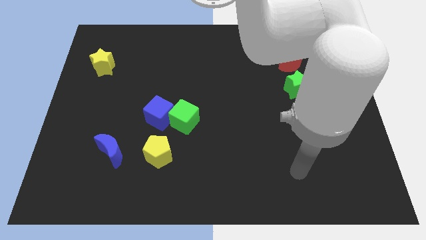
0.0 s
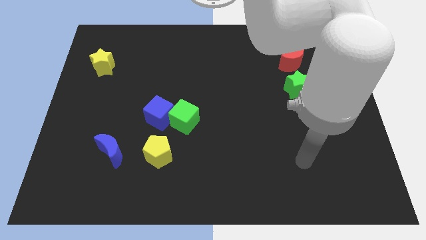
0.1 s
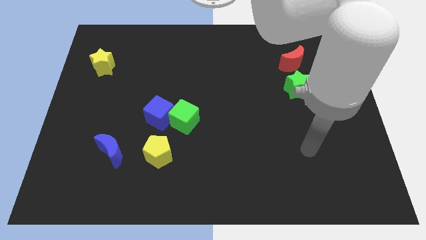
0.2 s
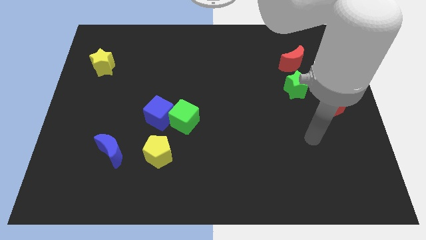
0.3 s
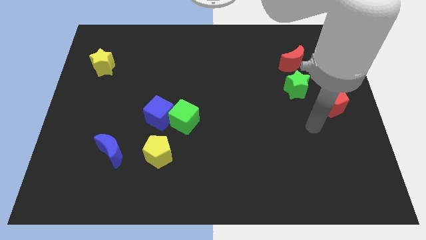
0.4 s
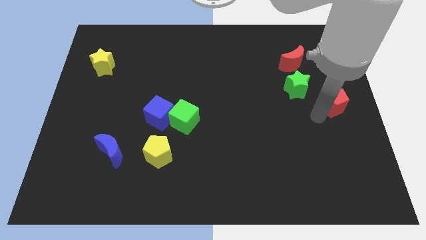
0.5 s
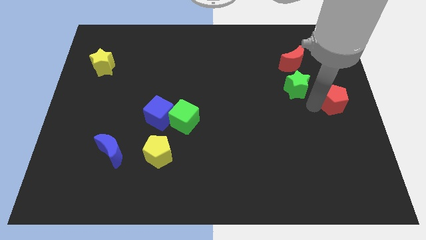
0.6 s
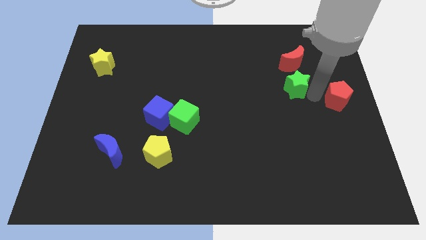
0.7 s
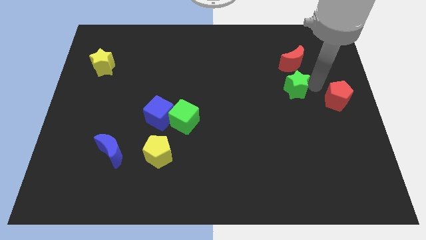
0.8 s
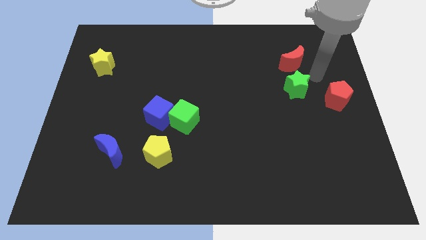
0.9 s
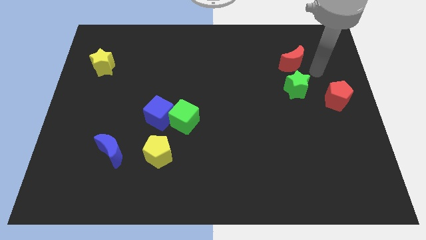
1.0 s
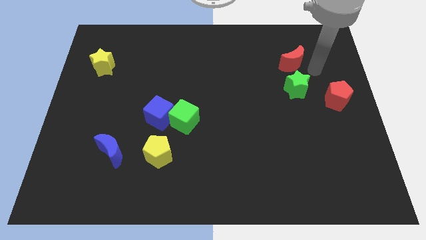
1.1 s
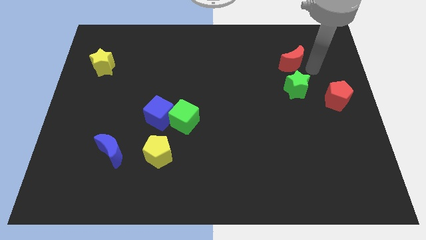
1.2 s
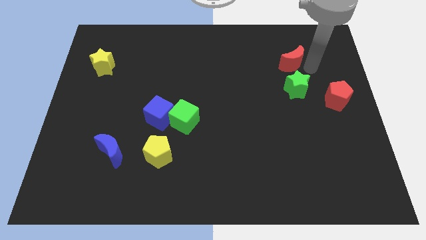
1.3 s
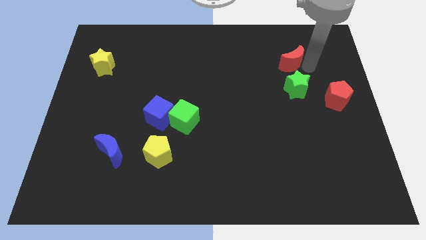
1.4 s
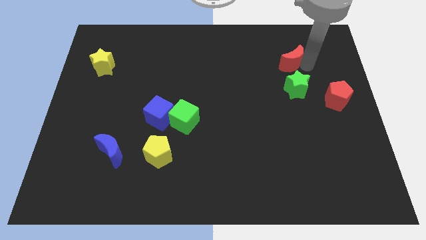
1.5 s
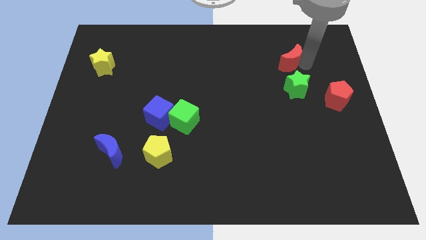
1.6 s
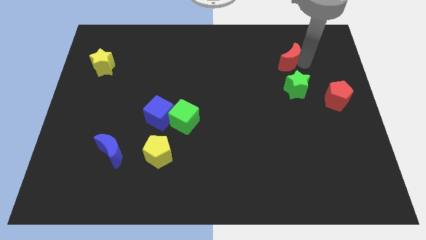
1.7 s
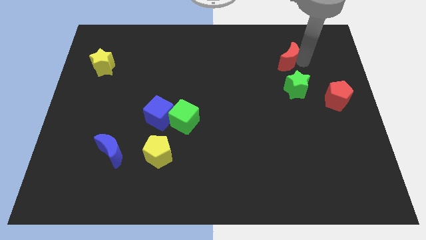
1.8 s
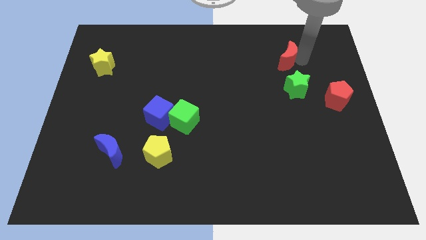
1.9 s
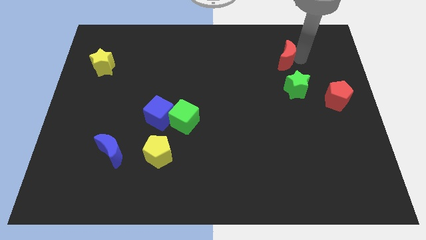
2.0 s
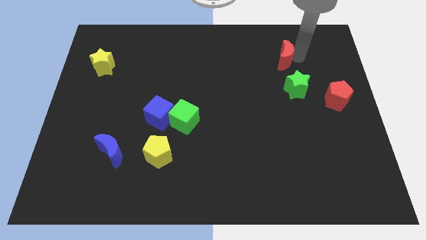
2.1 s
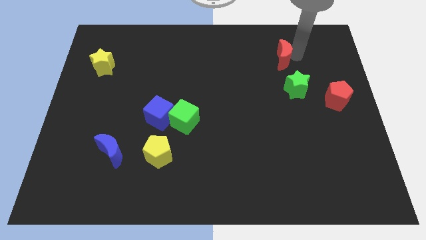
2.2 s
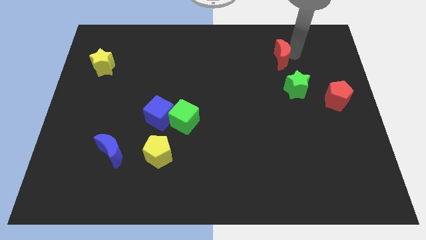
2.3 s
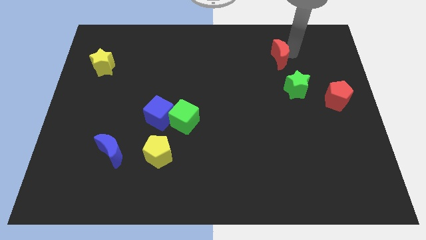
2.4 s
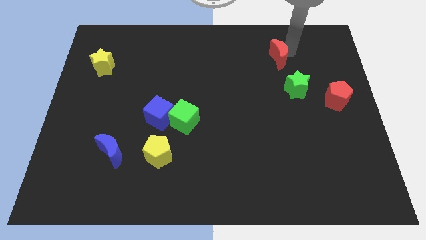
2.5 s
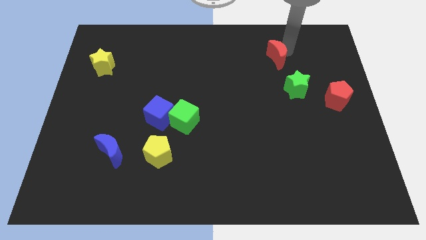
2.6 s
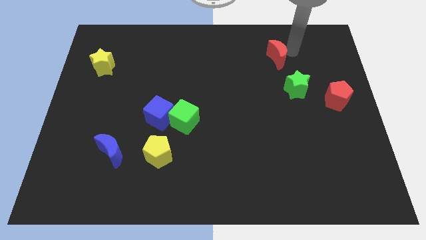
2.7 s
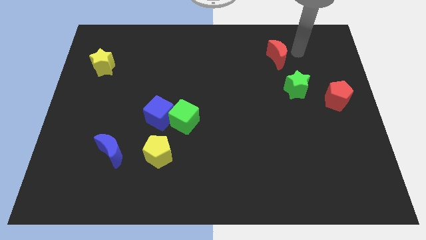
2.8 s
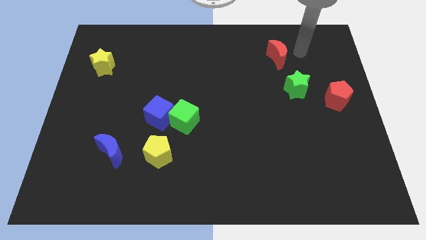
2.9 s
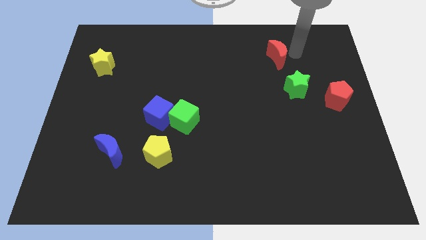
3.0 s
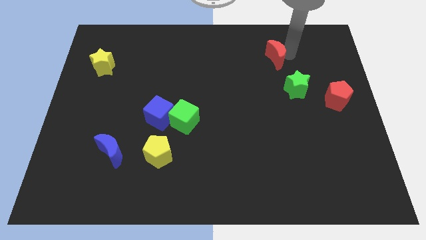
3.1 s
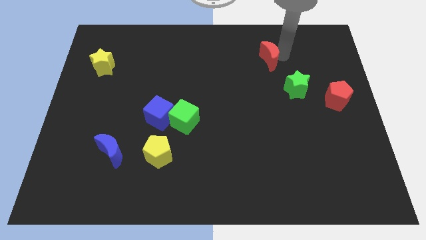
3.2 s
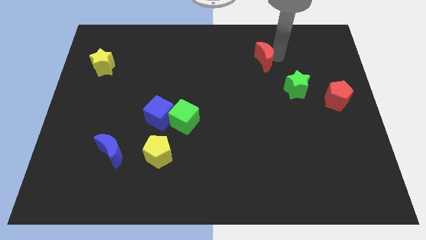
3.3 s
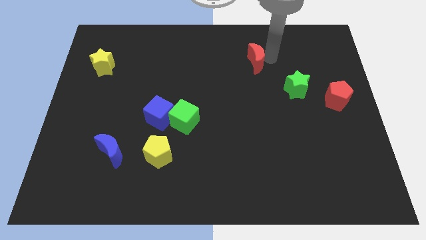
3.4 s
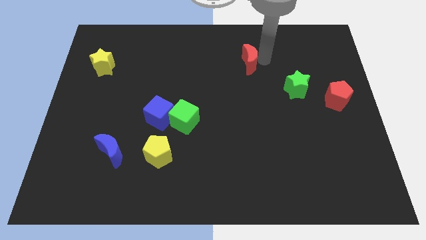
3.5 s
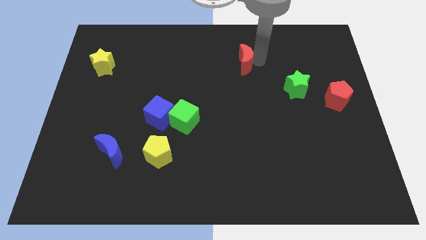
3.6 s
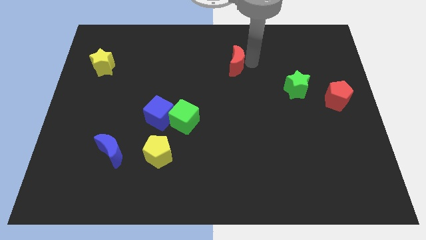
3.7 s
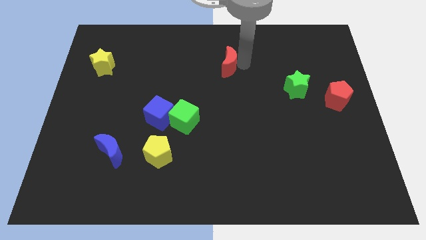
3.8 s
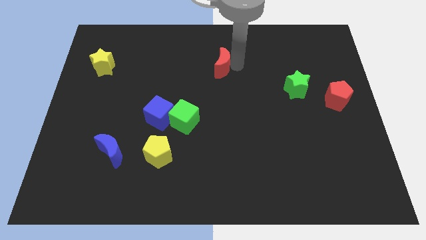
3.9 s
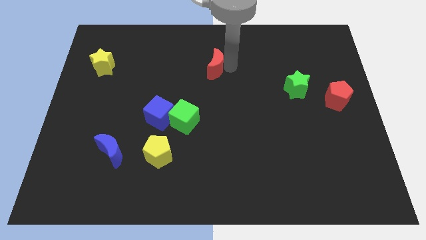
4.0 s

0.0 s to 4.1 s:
slide the red moon to the left

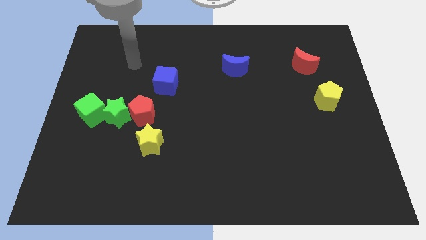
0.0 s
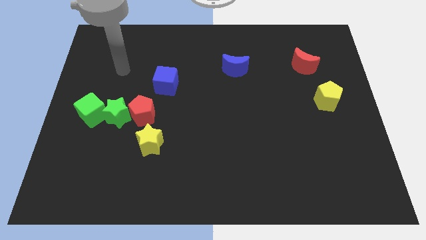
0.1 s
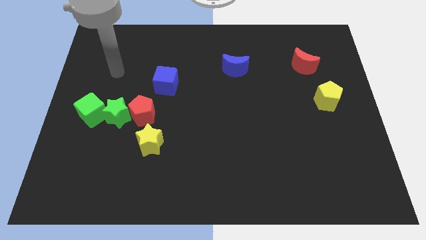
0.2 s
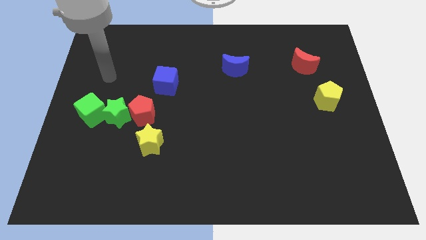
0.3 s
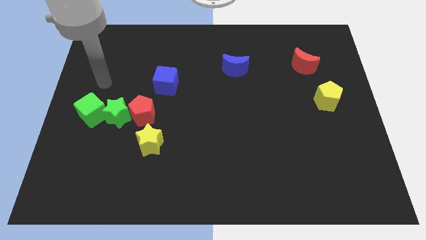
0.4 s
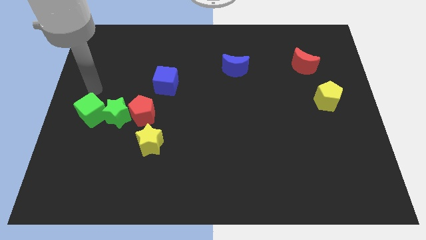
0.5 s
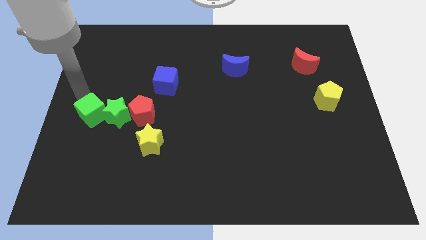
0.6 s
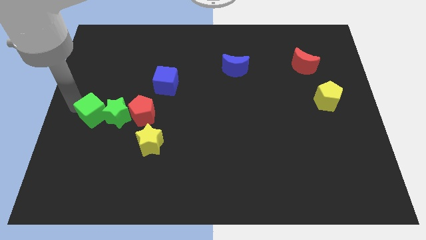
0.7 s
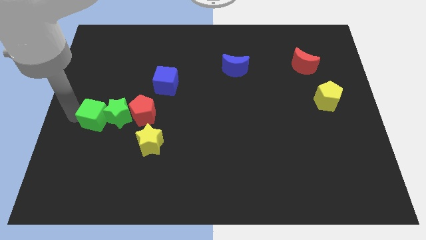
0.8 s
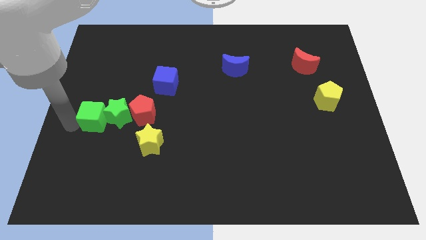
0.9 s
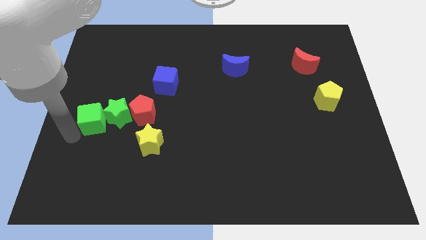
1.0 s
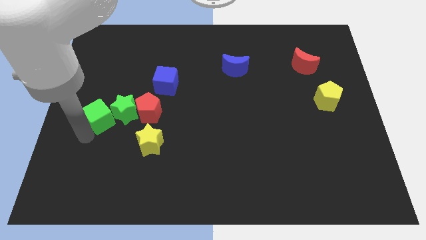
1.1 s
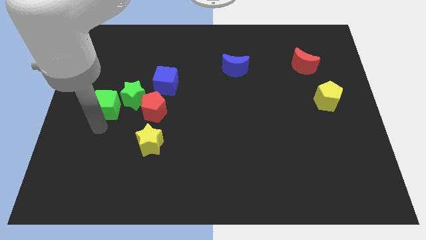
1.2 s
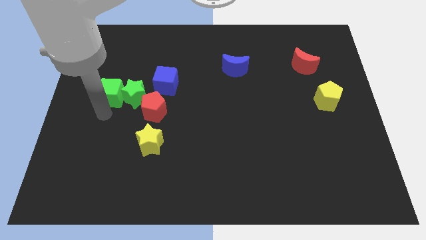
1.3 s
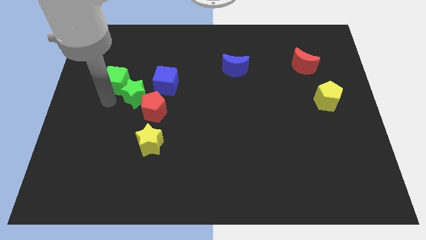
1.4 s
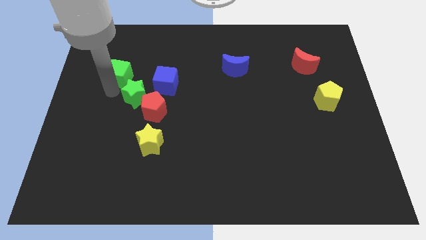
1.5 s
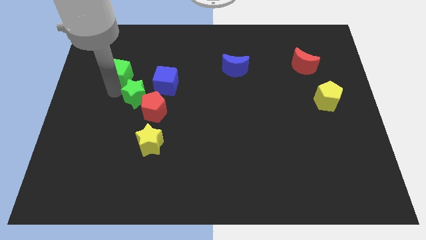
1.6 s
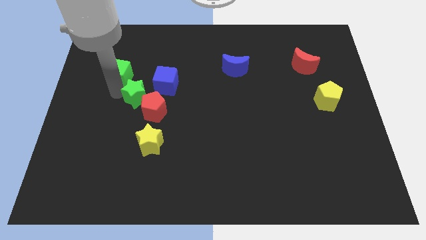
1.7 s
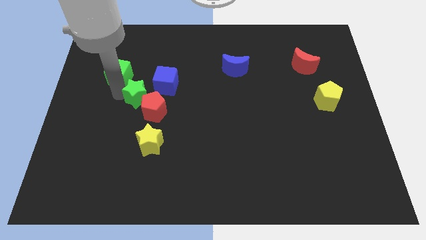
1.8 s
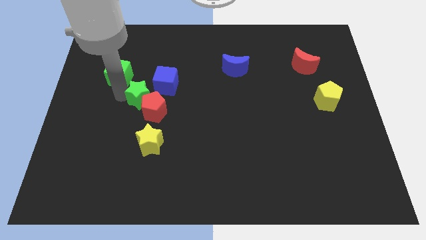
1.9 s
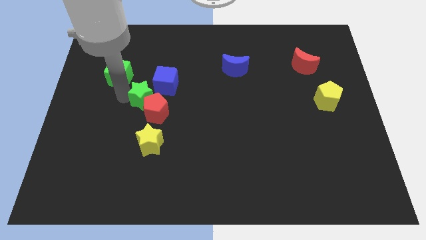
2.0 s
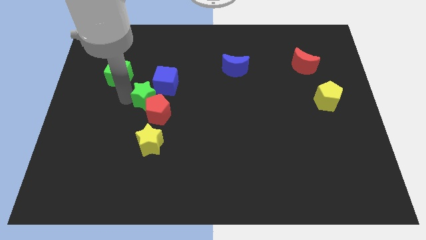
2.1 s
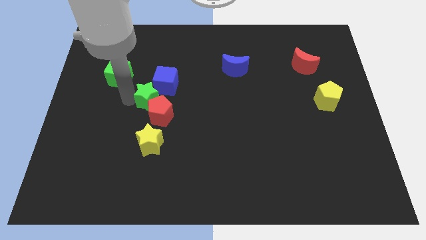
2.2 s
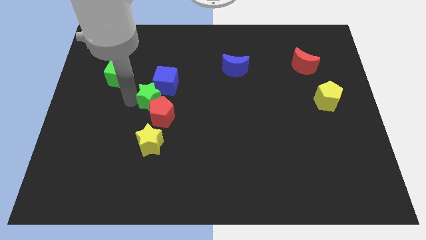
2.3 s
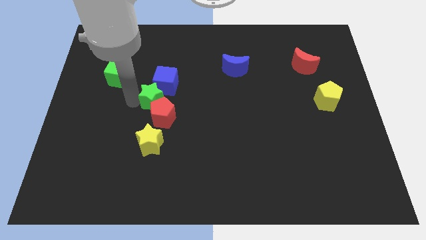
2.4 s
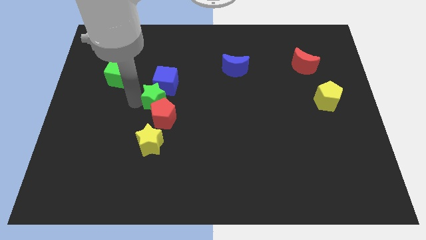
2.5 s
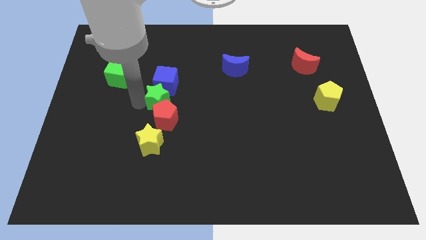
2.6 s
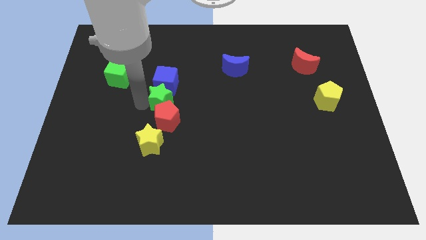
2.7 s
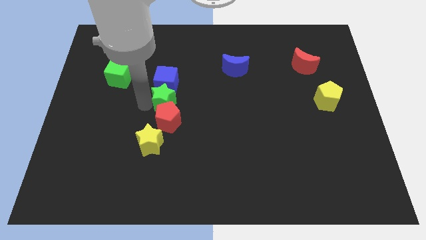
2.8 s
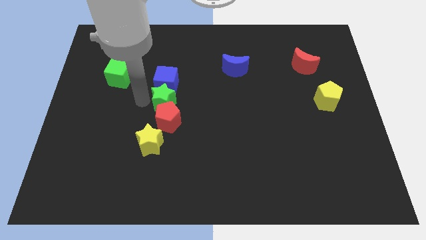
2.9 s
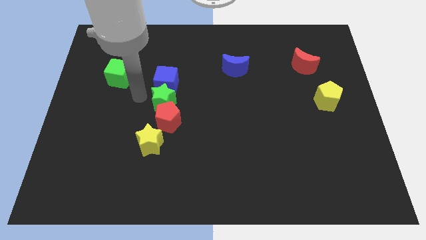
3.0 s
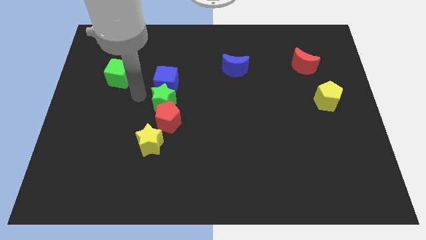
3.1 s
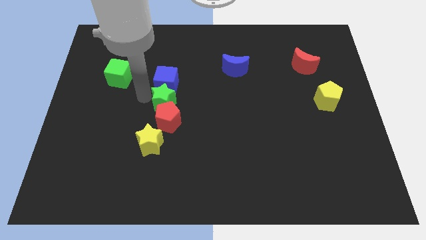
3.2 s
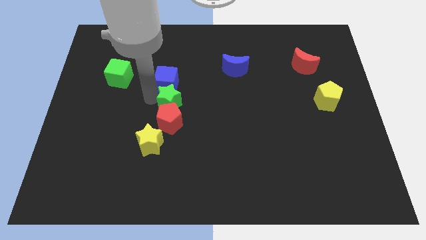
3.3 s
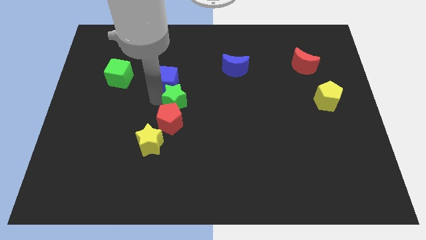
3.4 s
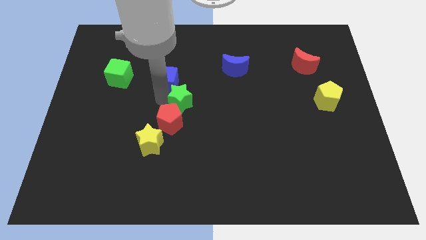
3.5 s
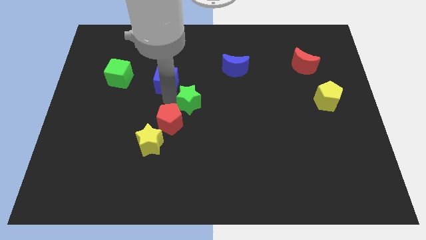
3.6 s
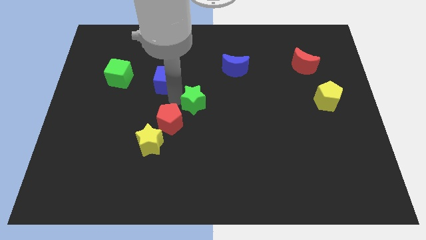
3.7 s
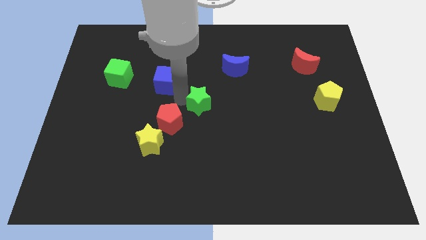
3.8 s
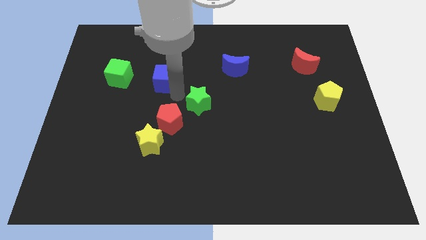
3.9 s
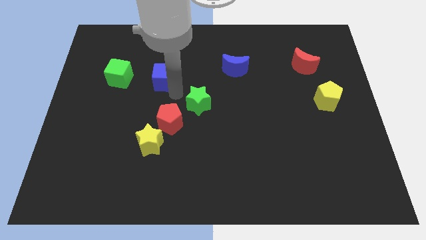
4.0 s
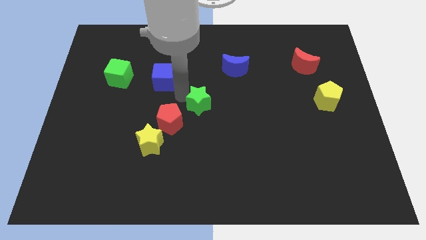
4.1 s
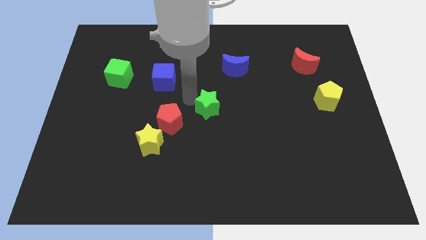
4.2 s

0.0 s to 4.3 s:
push the green star to the right

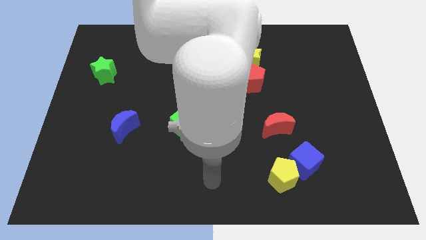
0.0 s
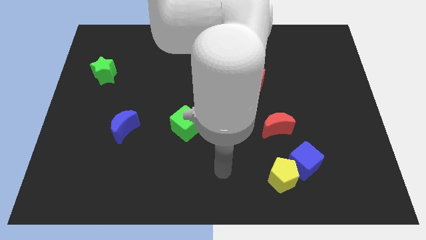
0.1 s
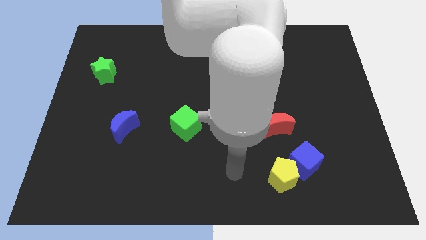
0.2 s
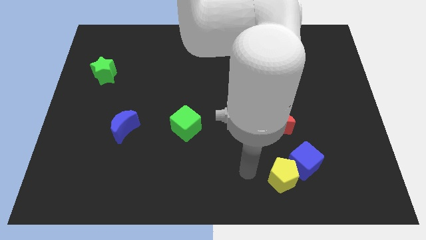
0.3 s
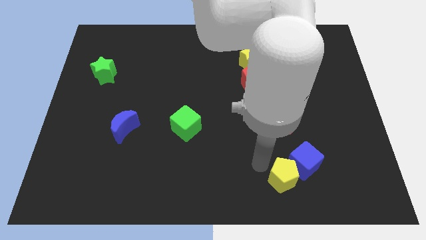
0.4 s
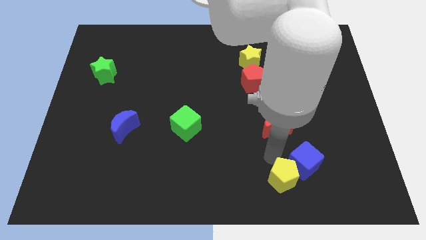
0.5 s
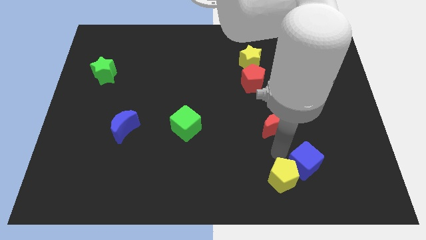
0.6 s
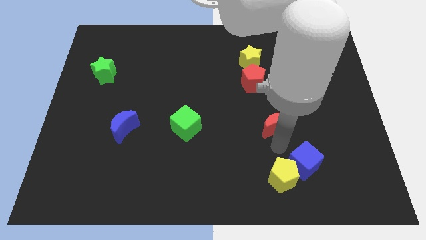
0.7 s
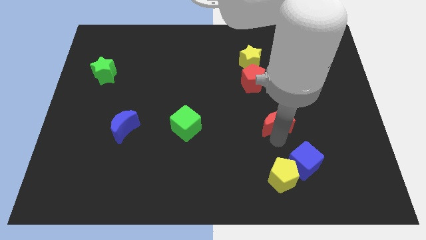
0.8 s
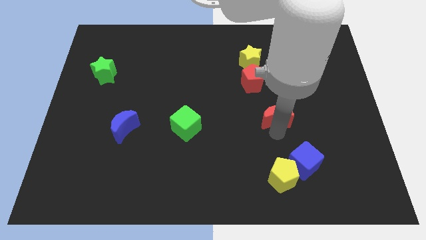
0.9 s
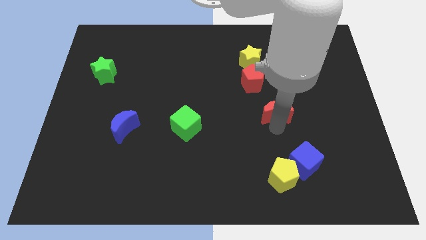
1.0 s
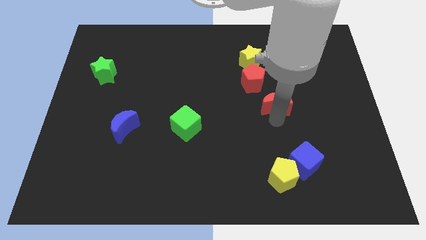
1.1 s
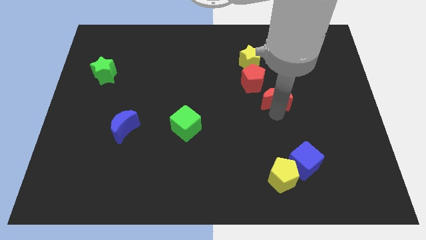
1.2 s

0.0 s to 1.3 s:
move the red moon upwards a little bit
